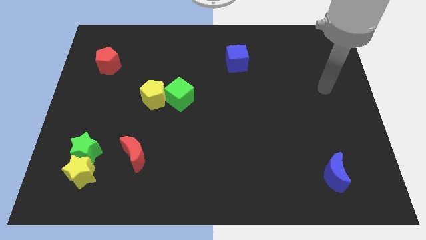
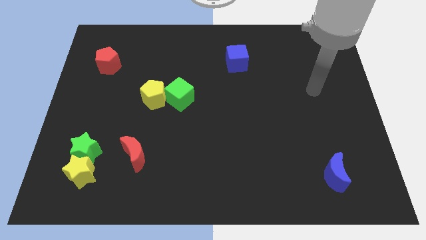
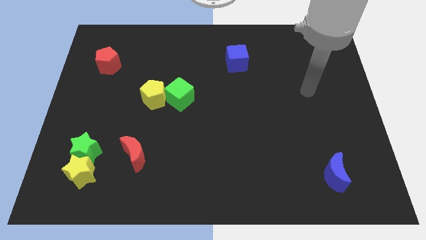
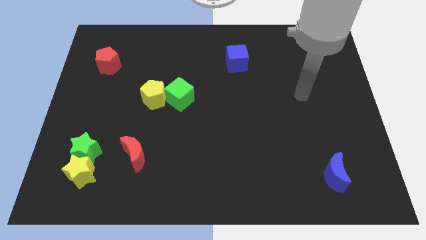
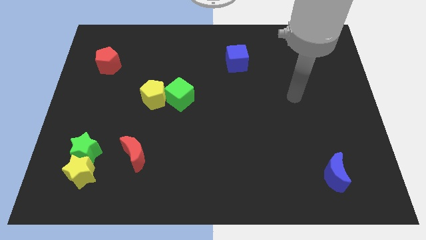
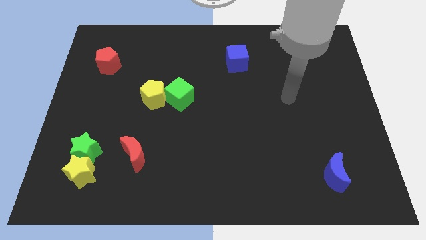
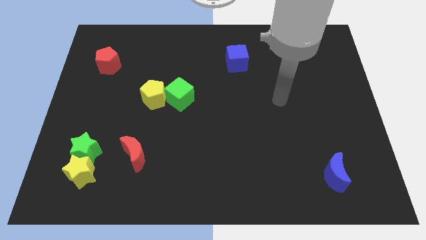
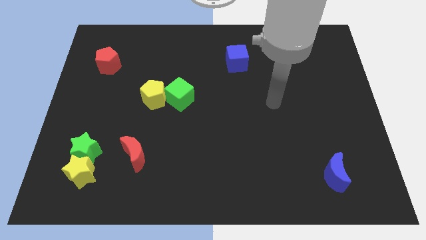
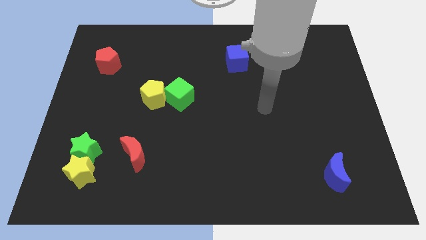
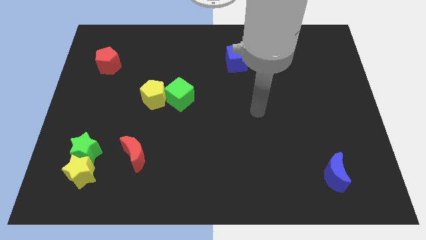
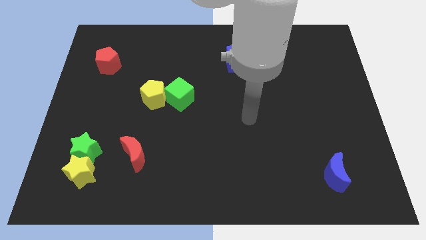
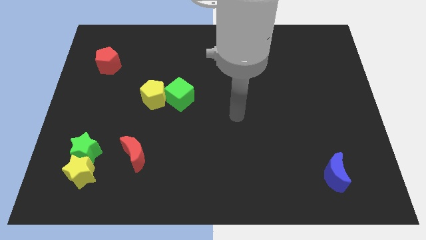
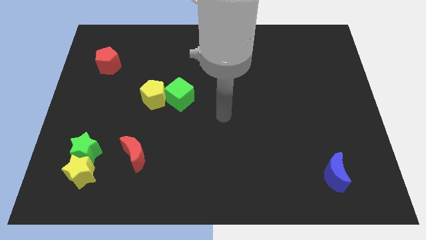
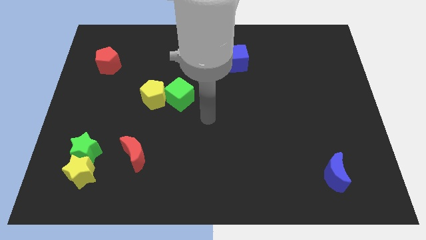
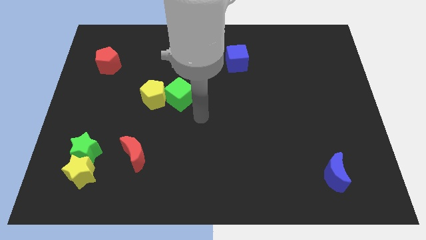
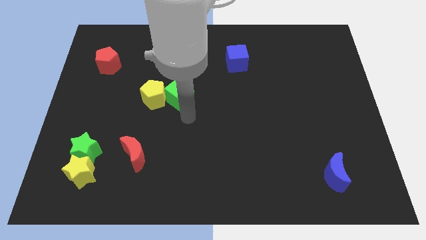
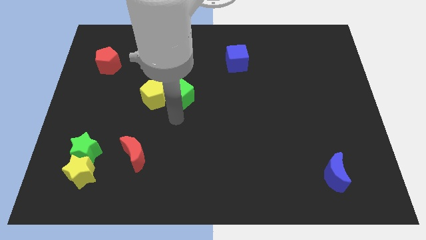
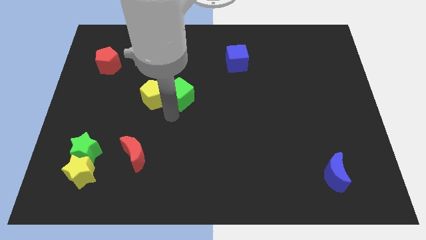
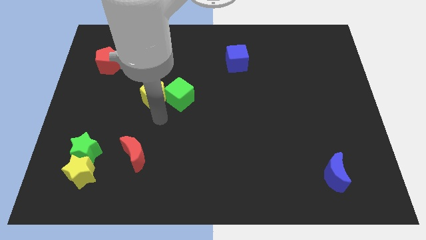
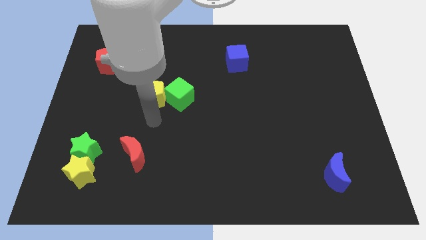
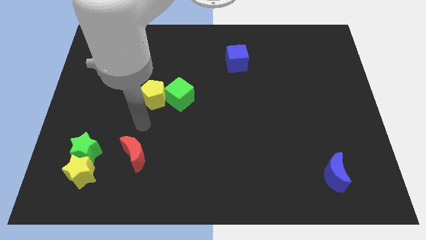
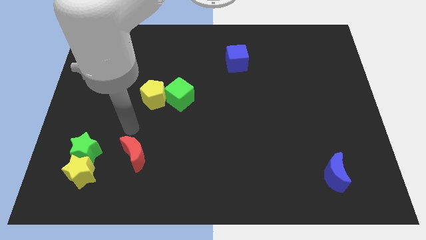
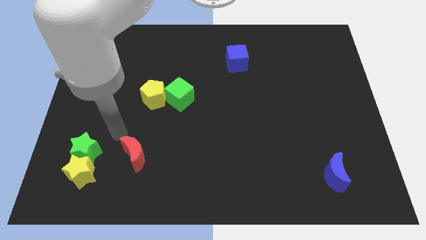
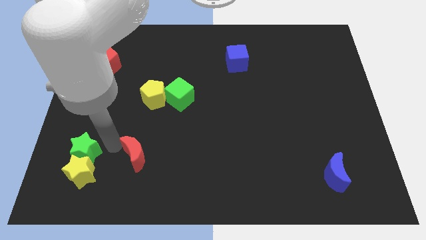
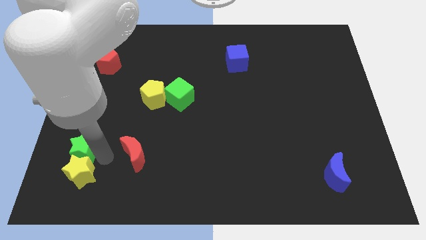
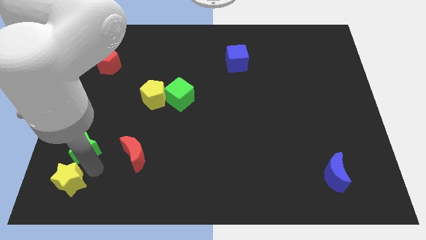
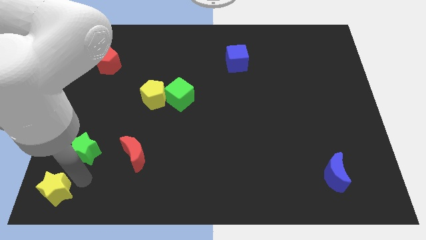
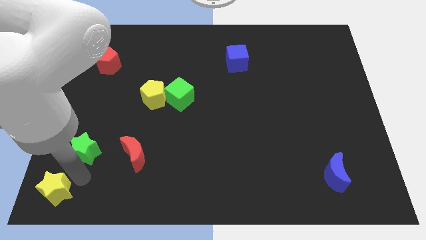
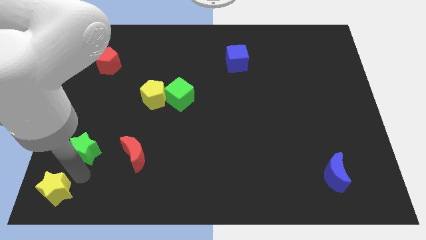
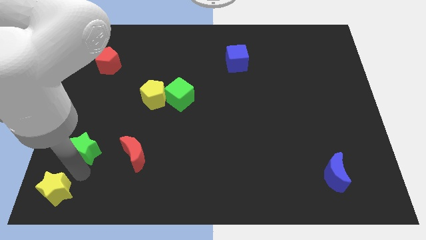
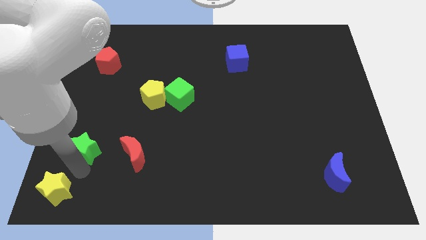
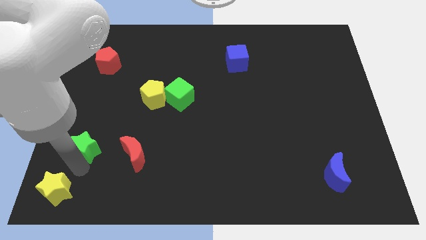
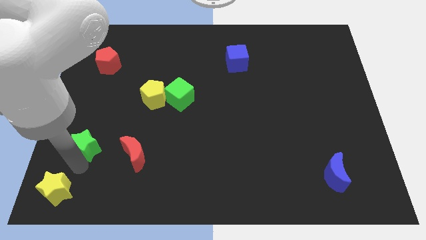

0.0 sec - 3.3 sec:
pull the green star apart from the yellow star

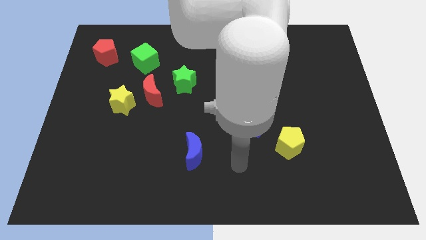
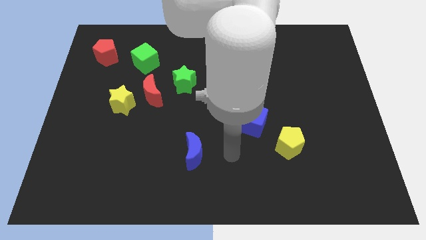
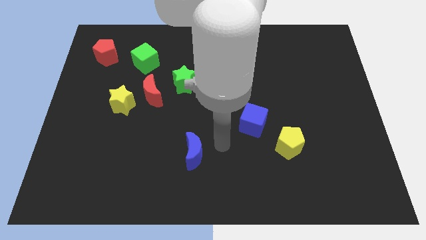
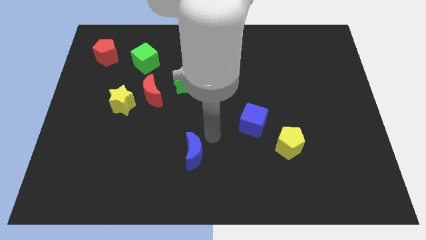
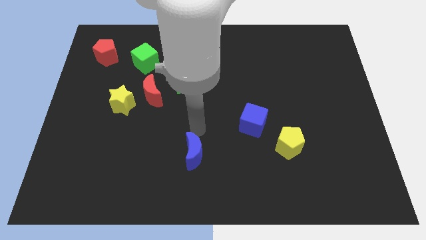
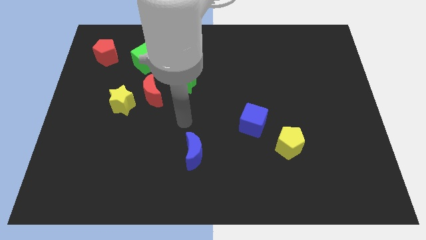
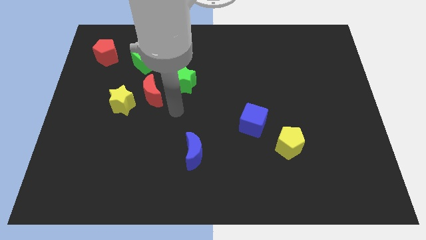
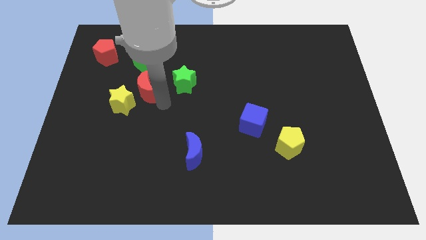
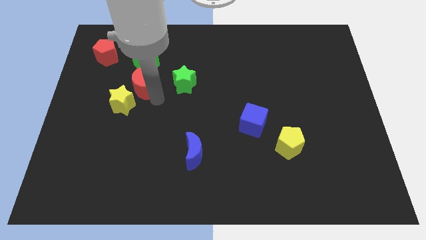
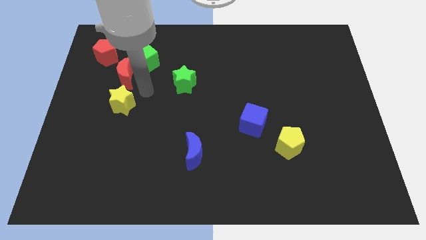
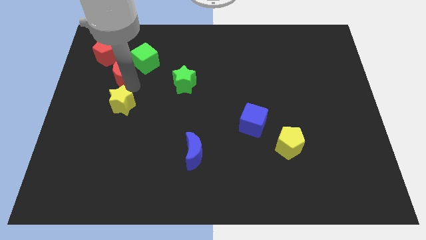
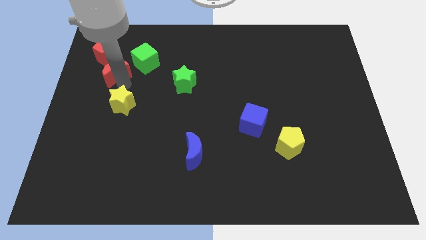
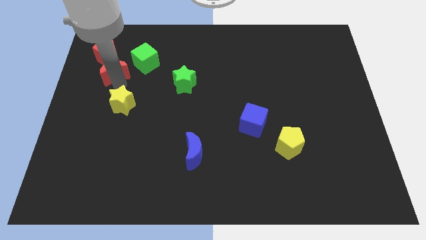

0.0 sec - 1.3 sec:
pull the yellow star apart from the red moon

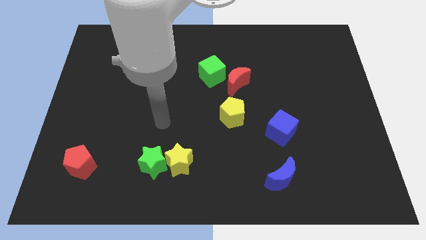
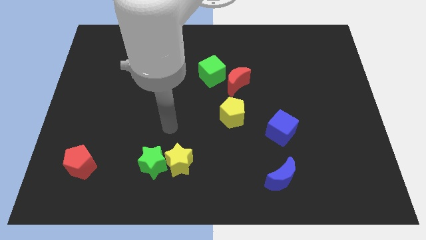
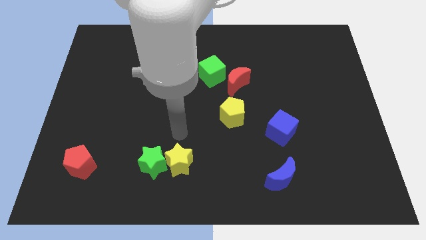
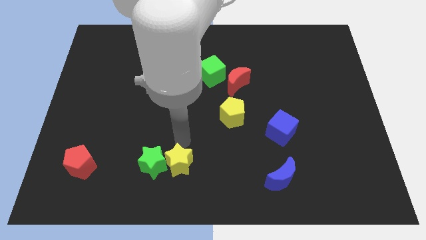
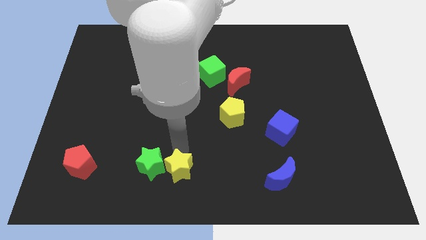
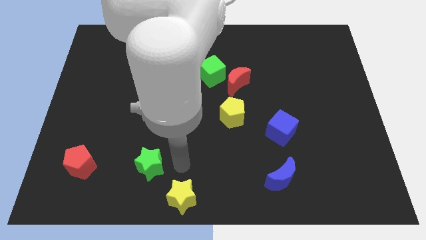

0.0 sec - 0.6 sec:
separate the green star from the yellow star

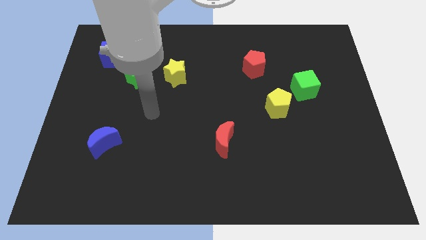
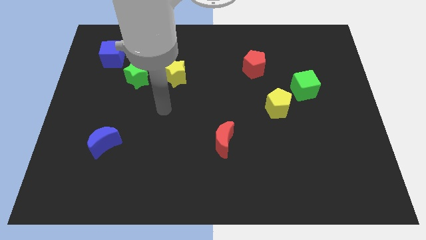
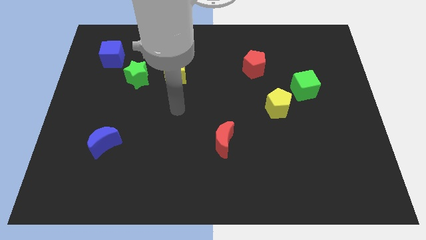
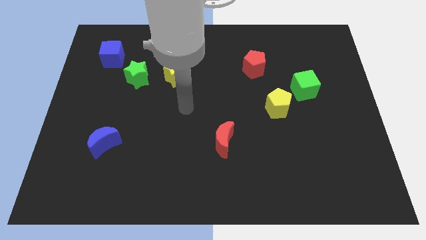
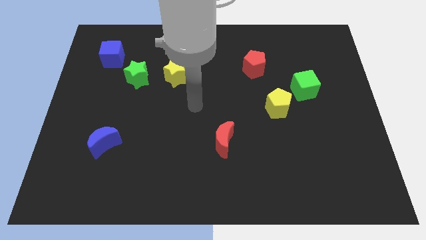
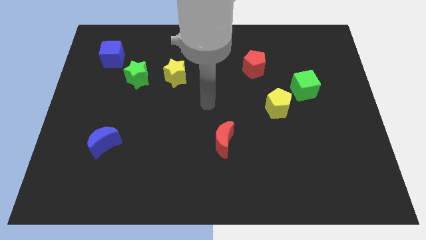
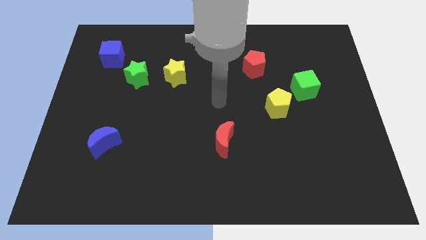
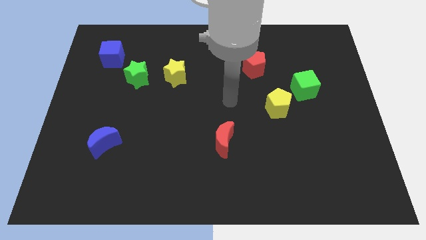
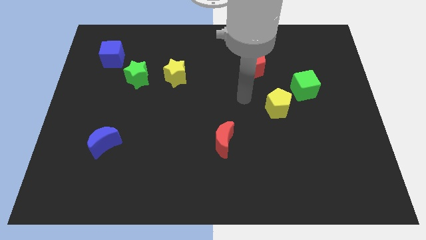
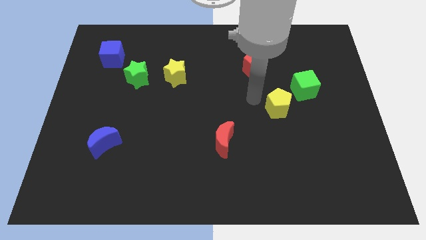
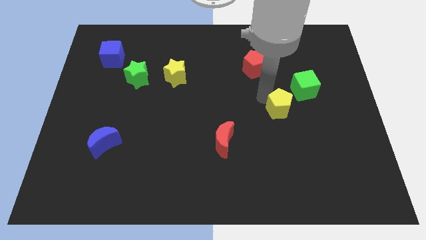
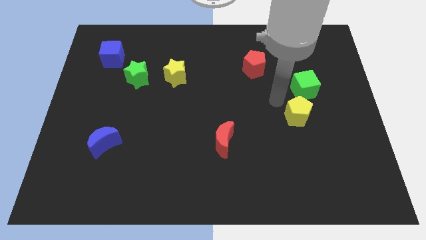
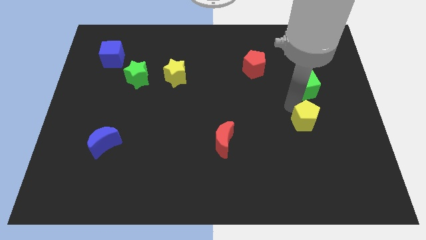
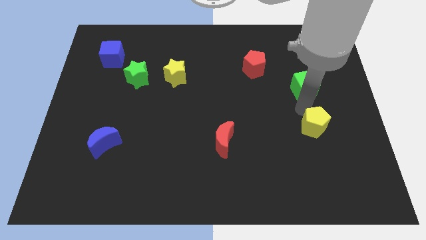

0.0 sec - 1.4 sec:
separate the green cube from the yellow pentagon

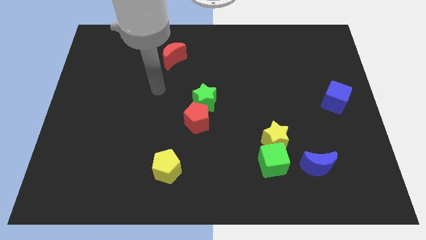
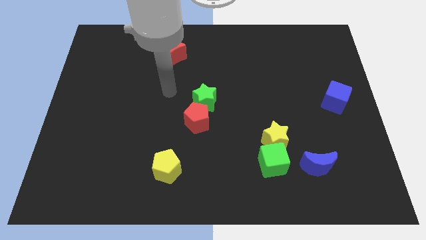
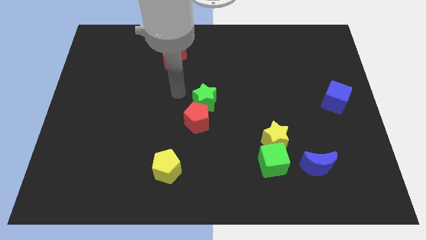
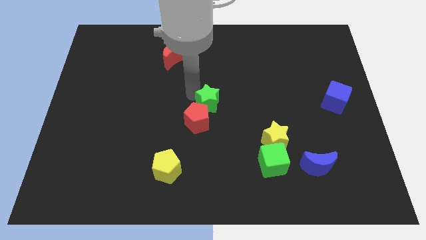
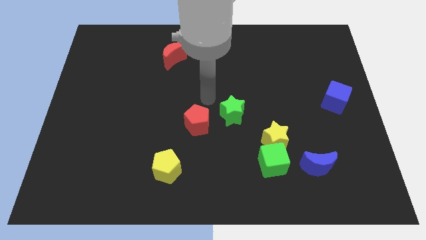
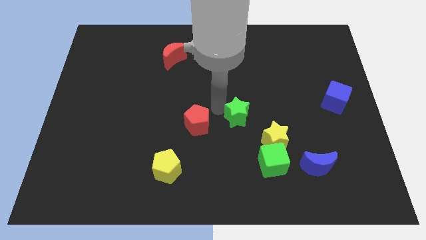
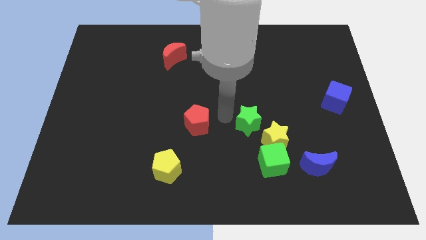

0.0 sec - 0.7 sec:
separate the red pentagon from the green star

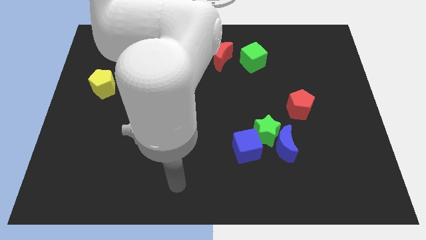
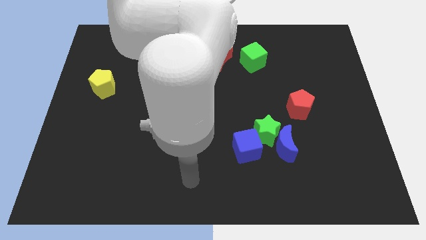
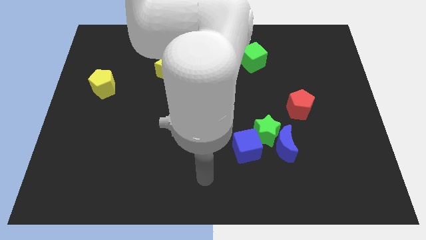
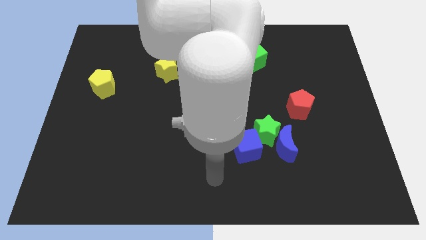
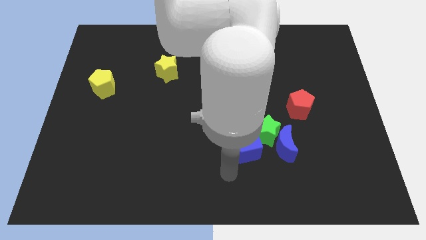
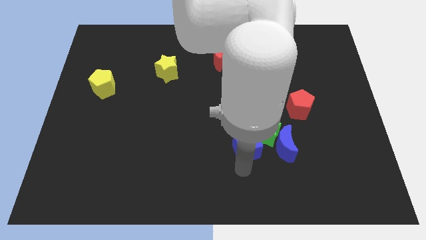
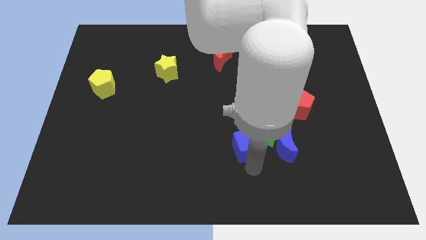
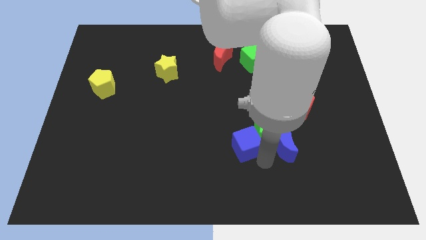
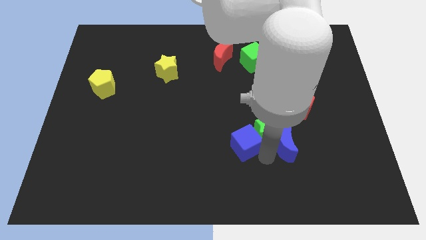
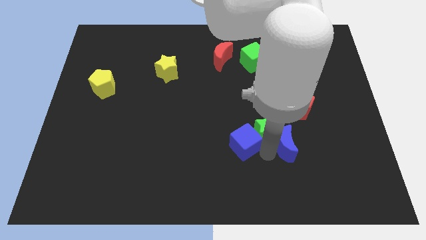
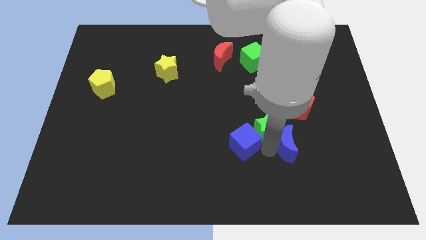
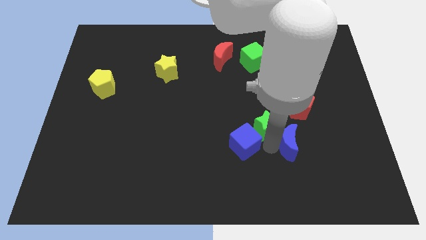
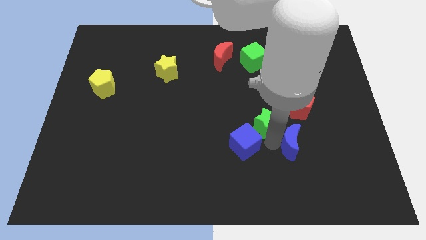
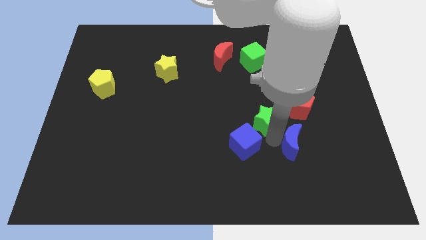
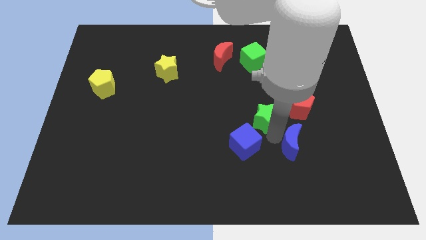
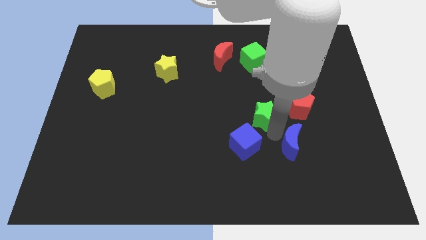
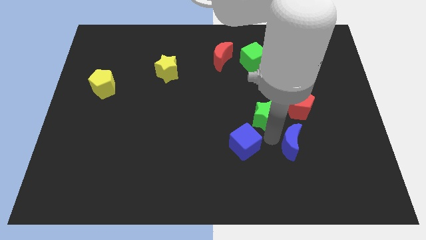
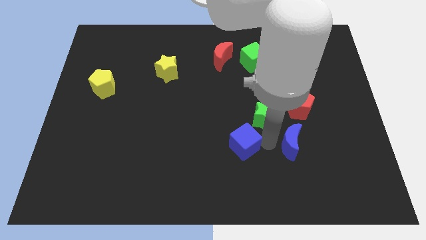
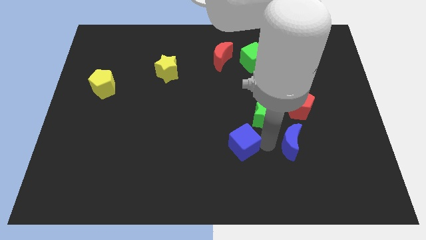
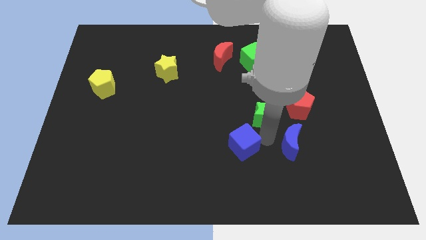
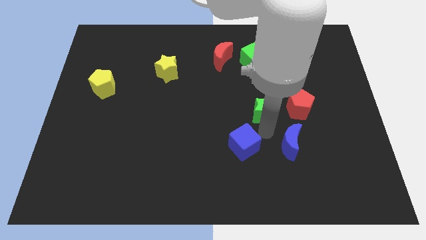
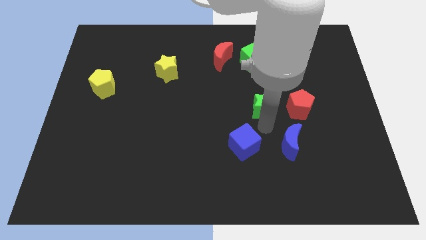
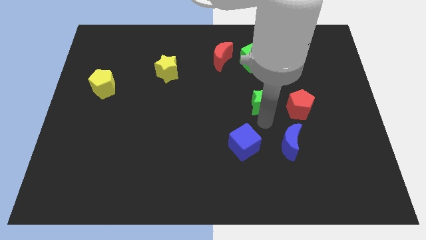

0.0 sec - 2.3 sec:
move the green star away from the blue moon and blue cube
